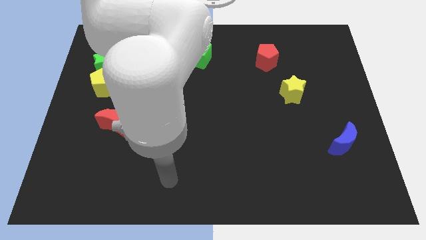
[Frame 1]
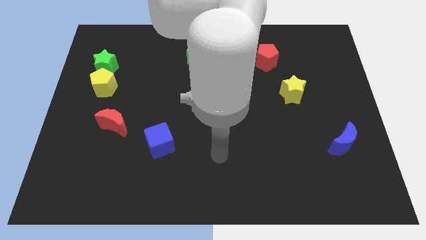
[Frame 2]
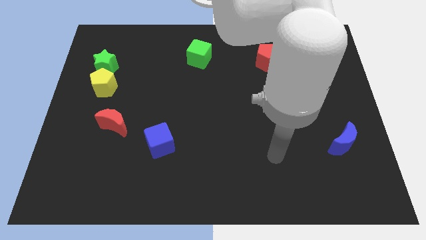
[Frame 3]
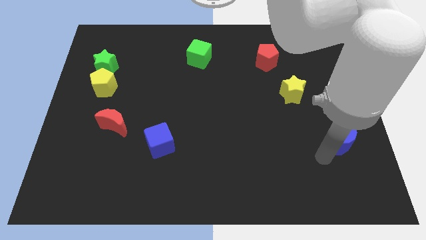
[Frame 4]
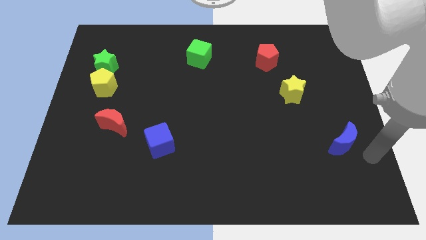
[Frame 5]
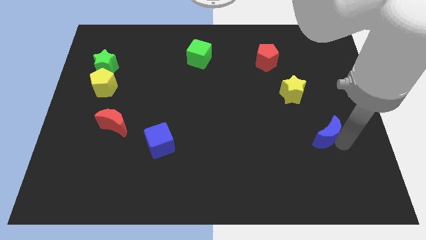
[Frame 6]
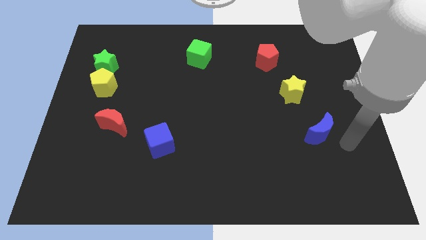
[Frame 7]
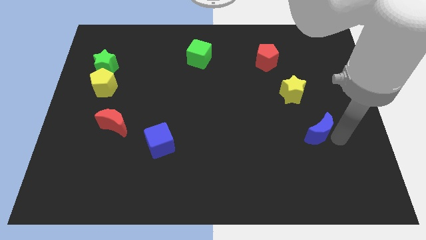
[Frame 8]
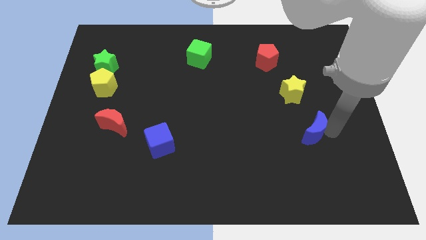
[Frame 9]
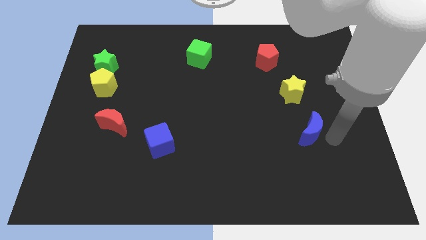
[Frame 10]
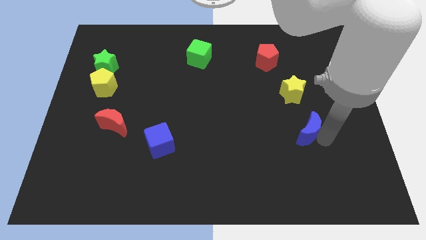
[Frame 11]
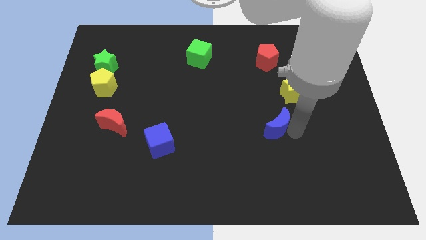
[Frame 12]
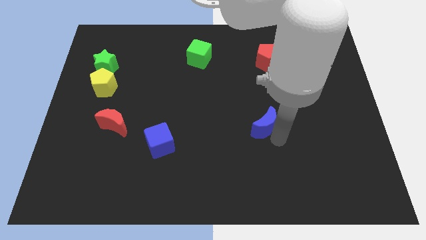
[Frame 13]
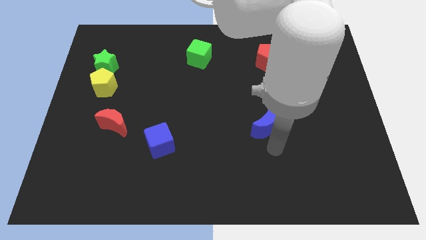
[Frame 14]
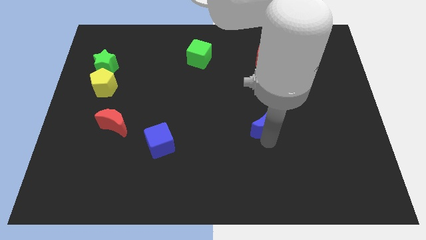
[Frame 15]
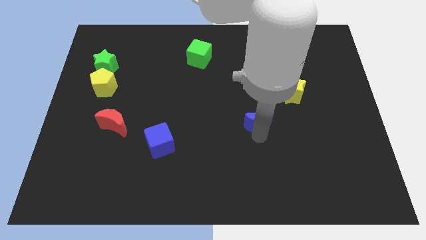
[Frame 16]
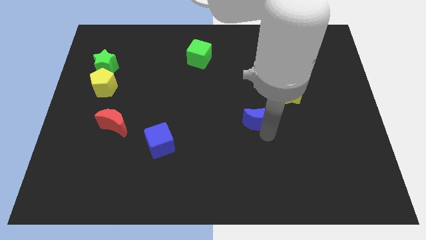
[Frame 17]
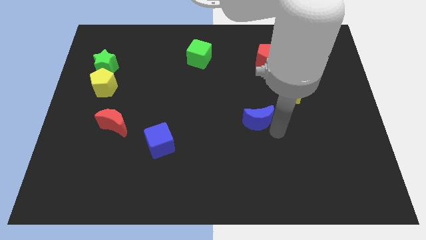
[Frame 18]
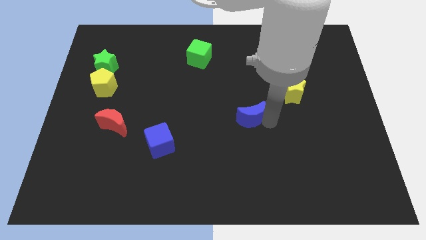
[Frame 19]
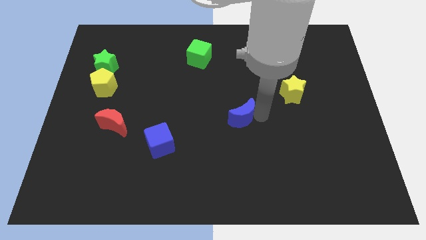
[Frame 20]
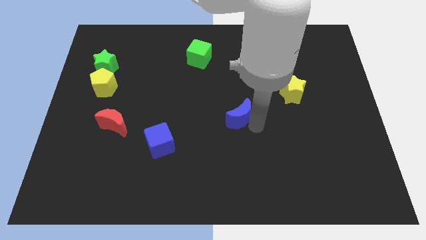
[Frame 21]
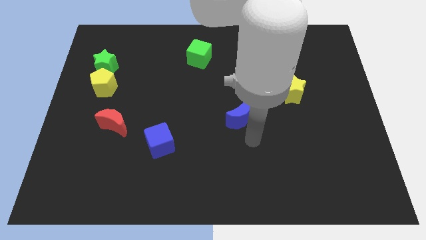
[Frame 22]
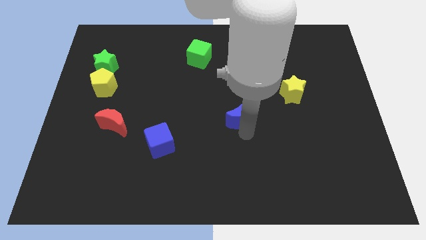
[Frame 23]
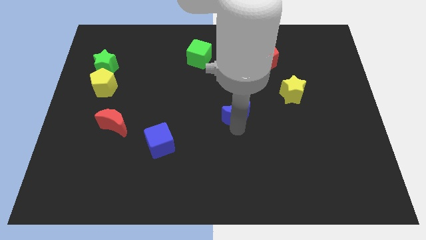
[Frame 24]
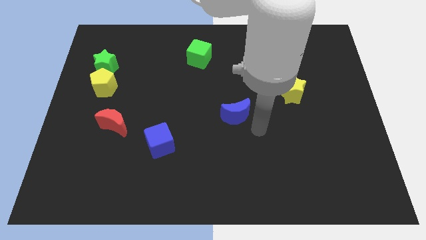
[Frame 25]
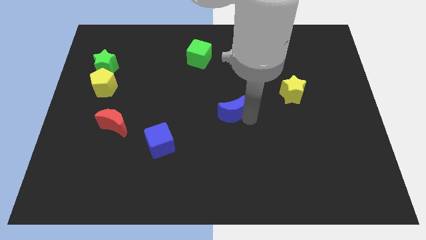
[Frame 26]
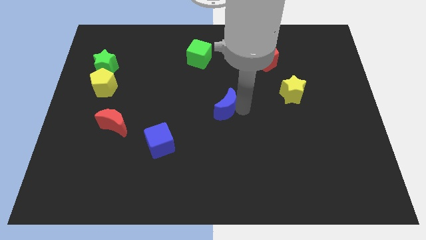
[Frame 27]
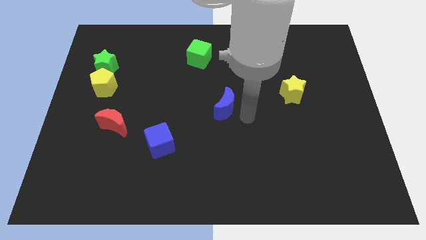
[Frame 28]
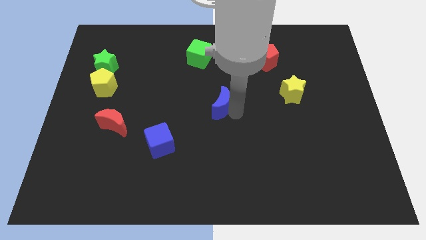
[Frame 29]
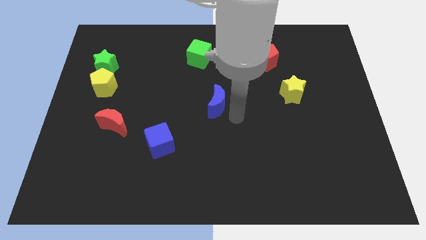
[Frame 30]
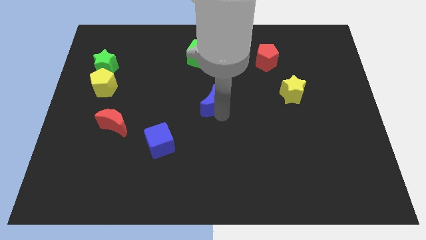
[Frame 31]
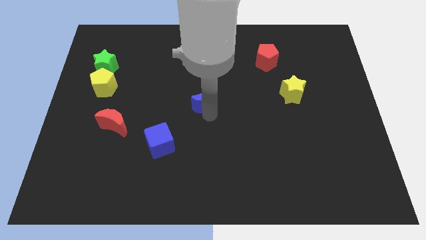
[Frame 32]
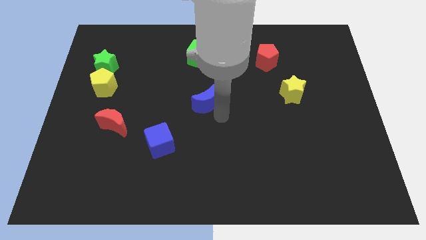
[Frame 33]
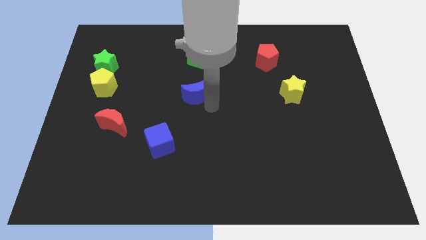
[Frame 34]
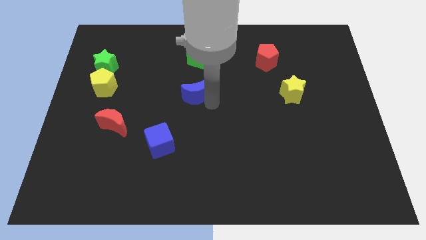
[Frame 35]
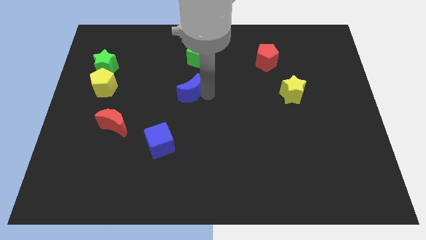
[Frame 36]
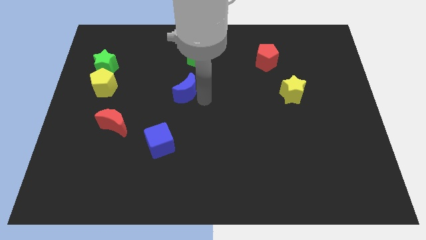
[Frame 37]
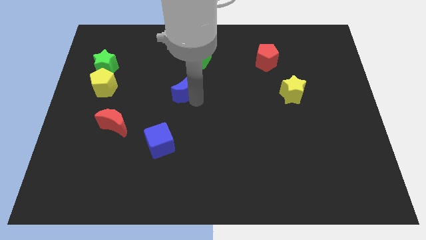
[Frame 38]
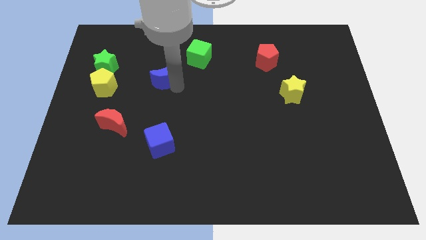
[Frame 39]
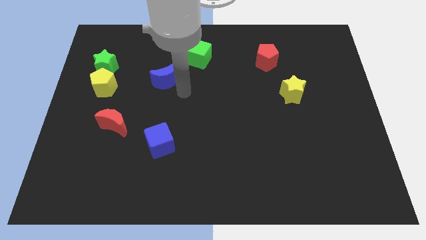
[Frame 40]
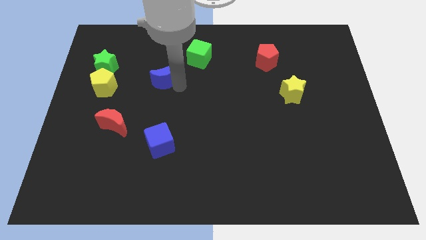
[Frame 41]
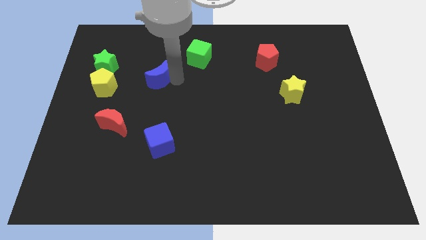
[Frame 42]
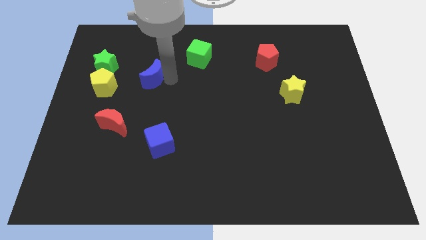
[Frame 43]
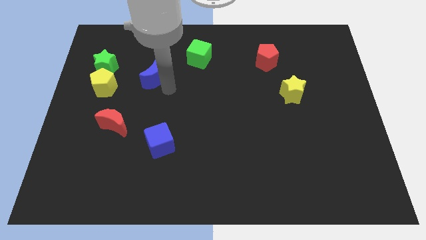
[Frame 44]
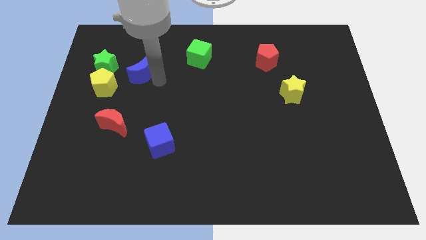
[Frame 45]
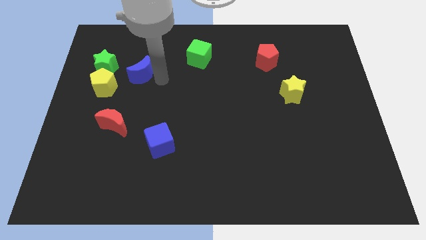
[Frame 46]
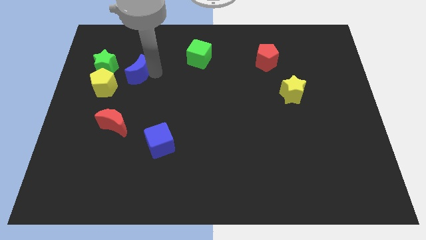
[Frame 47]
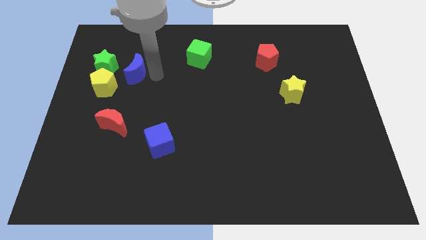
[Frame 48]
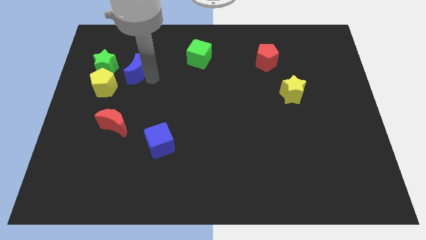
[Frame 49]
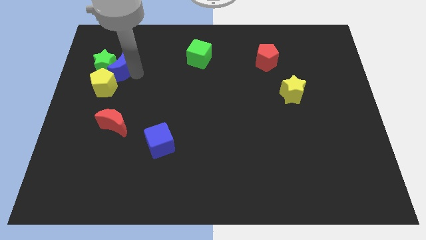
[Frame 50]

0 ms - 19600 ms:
slide the blue moon towards the green star

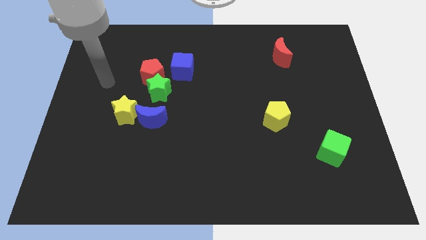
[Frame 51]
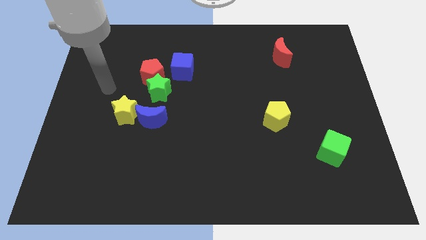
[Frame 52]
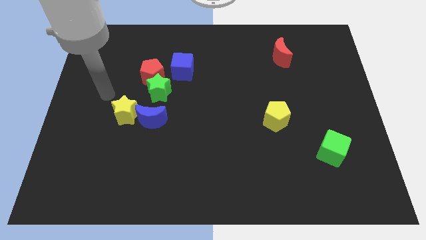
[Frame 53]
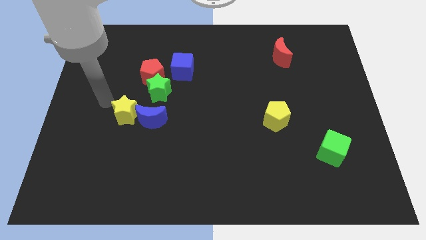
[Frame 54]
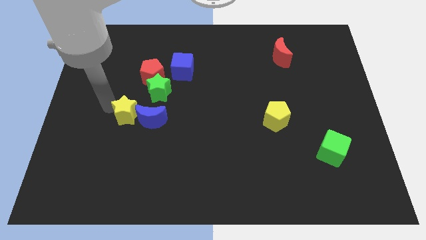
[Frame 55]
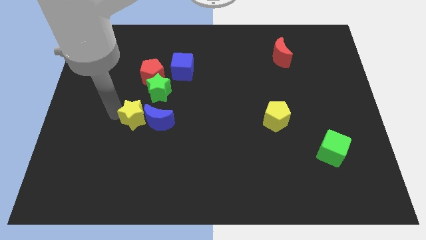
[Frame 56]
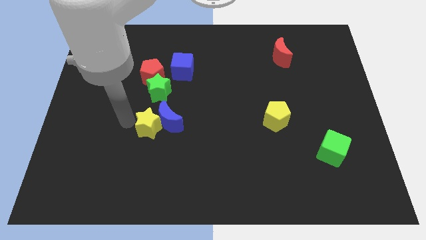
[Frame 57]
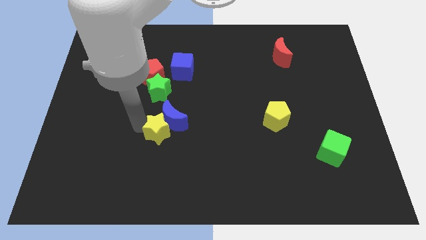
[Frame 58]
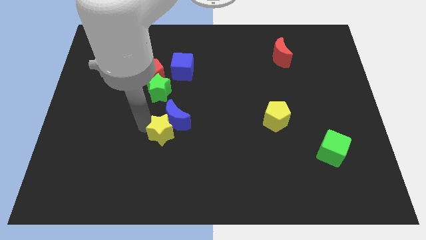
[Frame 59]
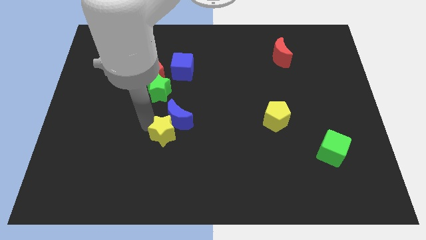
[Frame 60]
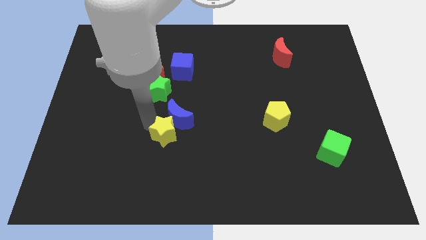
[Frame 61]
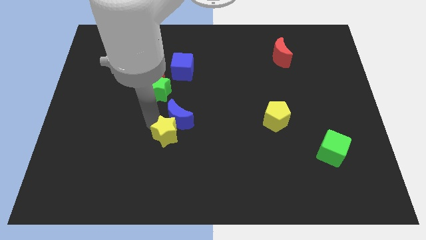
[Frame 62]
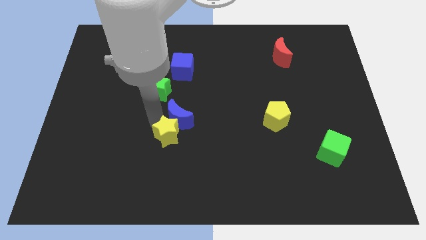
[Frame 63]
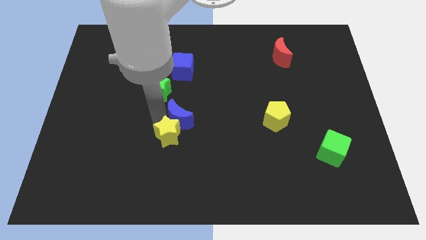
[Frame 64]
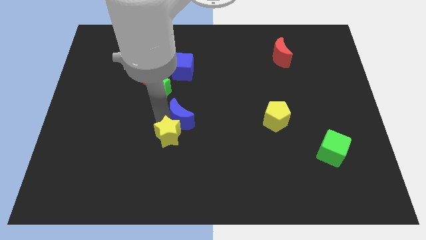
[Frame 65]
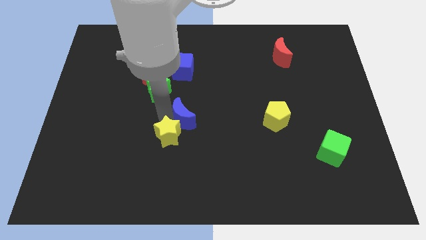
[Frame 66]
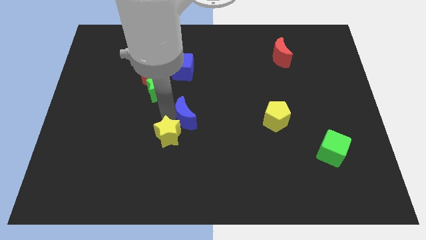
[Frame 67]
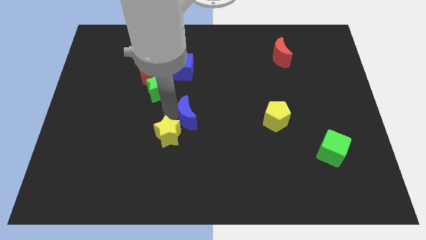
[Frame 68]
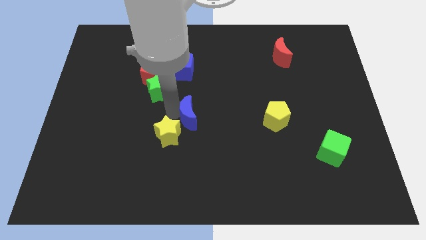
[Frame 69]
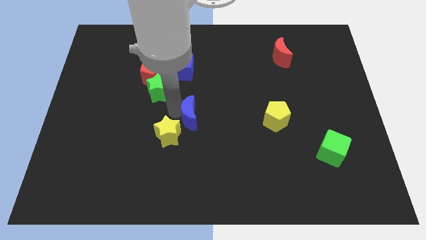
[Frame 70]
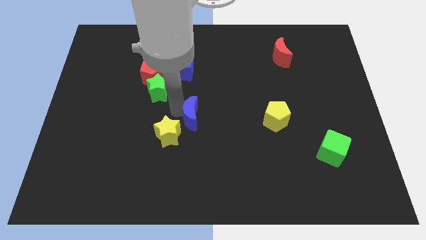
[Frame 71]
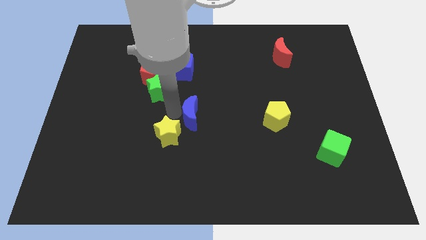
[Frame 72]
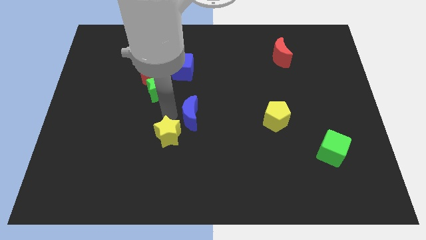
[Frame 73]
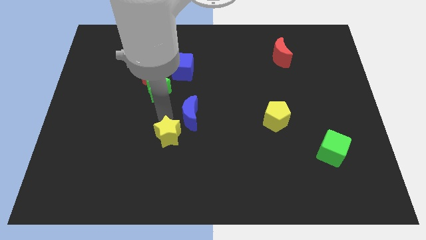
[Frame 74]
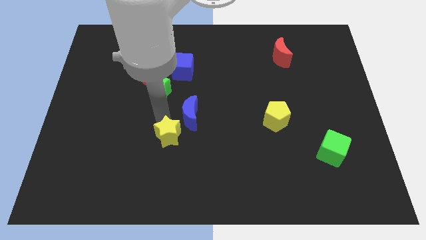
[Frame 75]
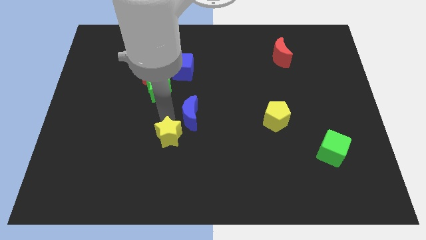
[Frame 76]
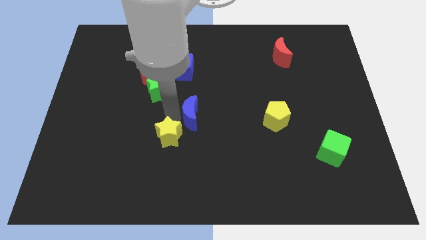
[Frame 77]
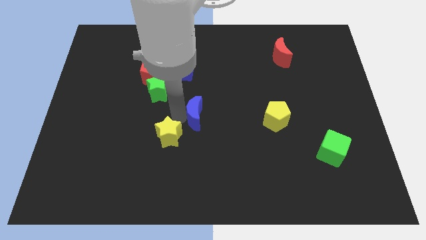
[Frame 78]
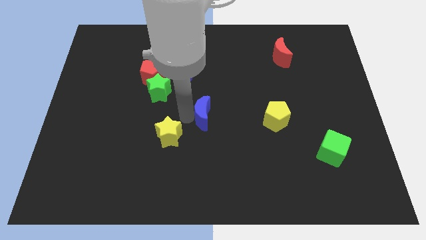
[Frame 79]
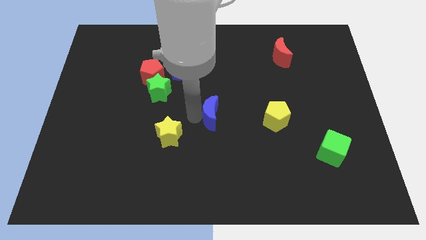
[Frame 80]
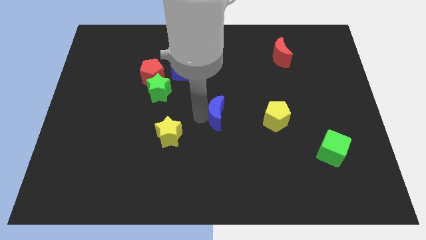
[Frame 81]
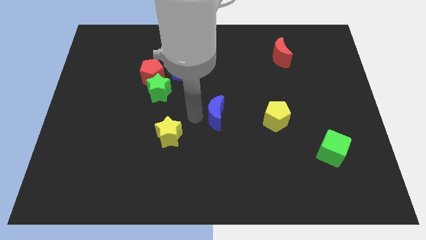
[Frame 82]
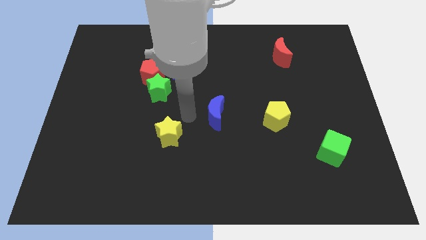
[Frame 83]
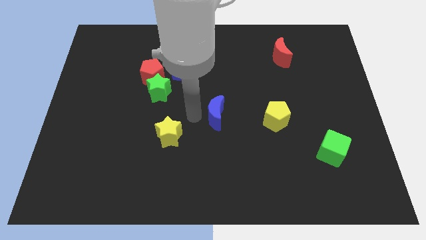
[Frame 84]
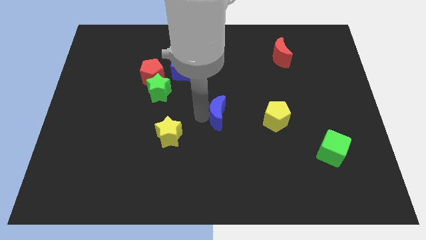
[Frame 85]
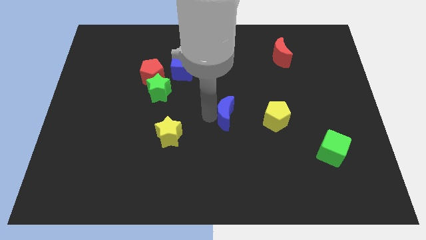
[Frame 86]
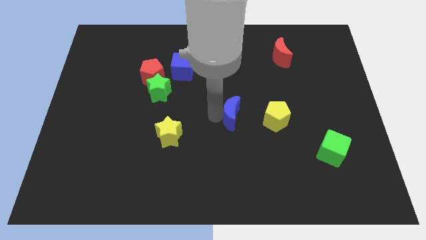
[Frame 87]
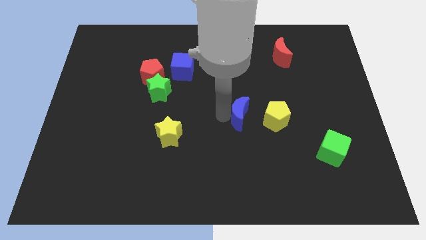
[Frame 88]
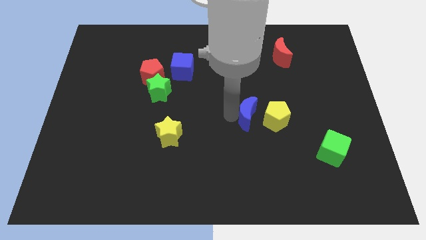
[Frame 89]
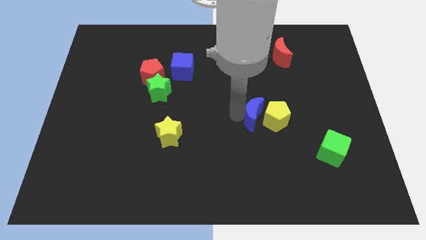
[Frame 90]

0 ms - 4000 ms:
move the blue moon next to the yellow pentagon
